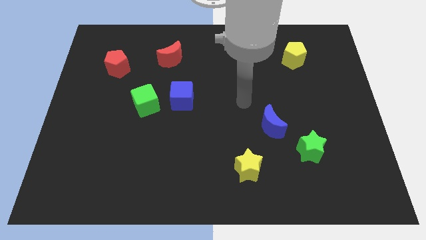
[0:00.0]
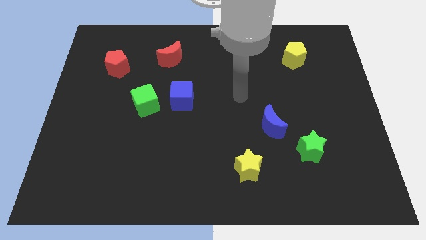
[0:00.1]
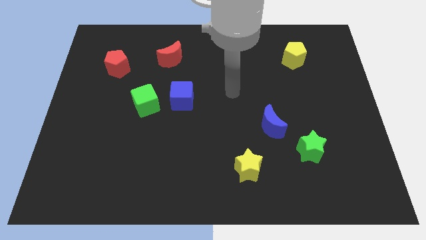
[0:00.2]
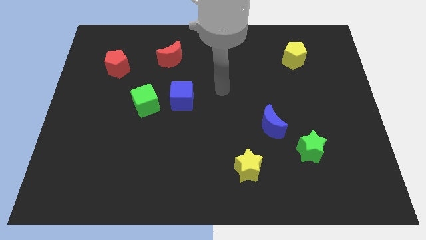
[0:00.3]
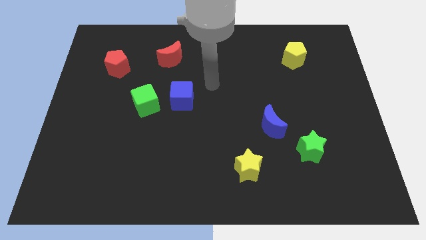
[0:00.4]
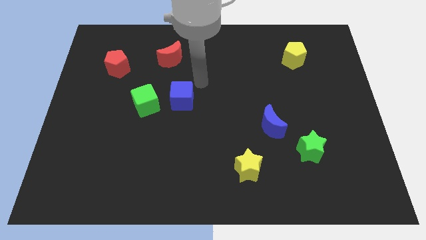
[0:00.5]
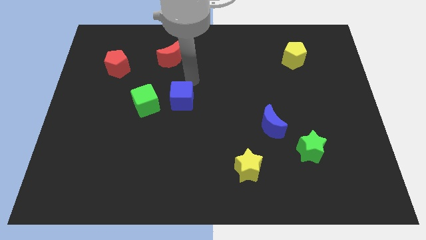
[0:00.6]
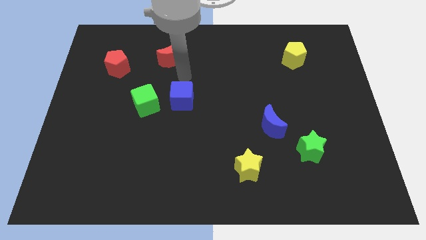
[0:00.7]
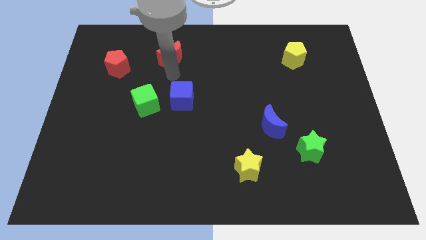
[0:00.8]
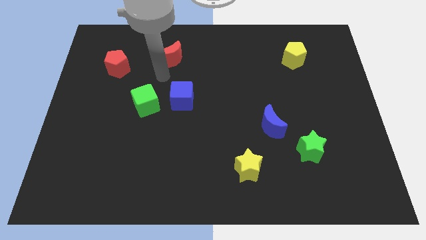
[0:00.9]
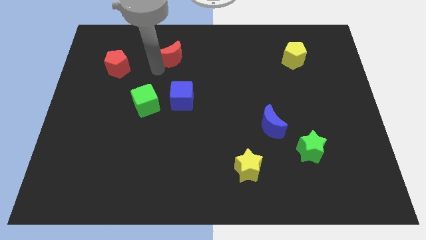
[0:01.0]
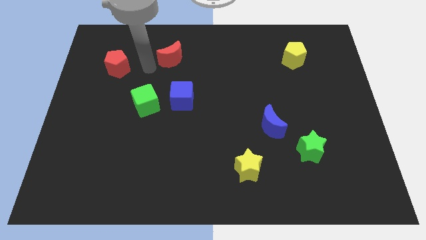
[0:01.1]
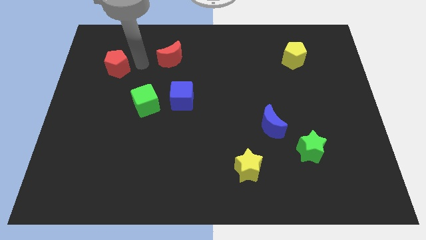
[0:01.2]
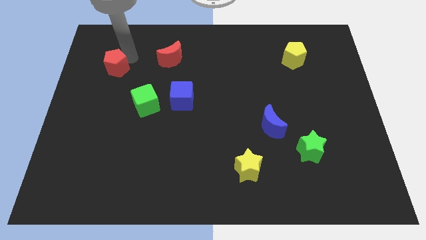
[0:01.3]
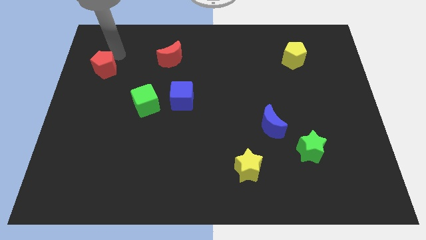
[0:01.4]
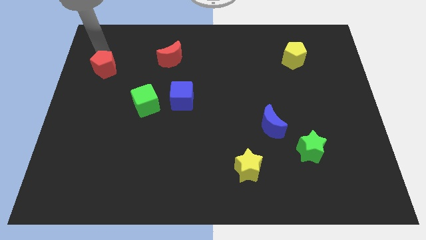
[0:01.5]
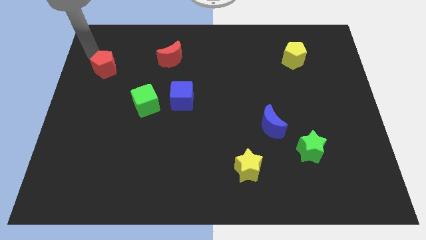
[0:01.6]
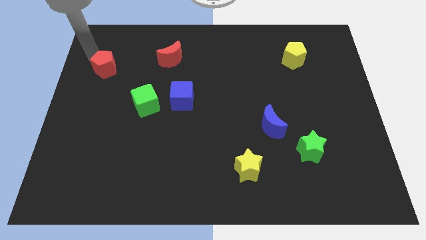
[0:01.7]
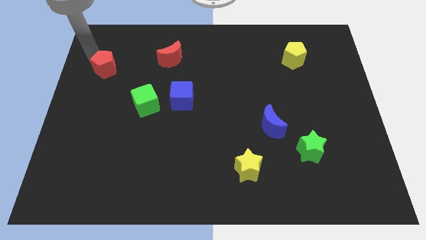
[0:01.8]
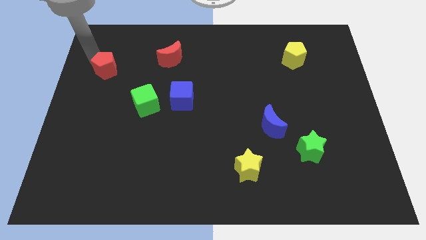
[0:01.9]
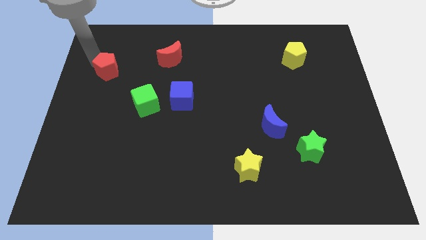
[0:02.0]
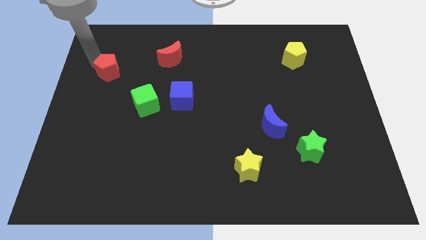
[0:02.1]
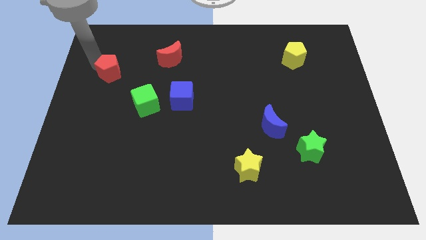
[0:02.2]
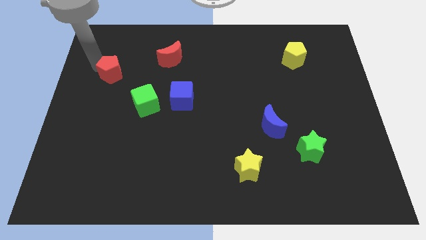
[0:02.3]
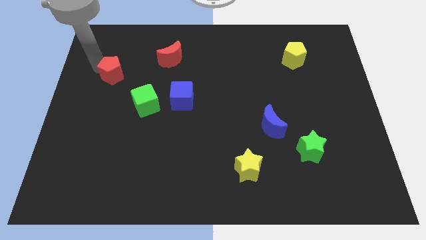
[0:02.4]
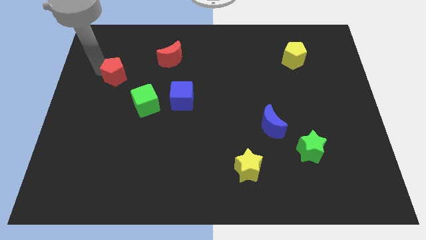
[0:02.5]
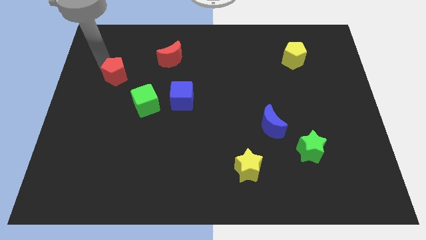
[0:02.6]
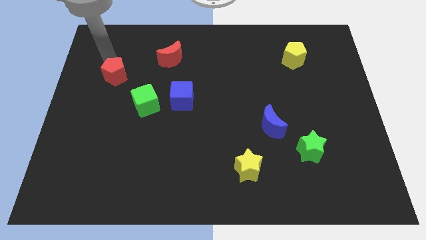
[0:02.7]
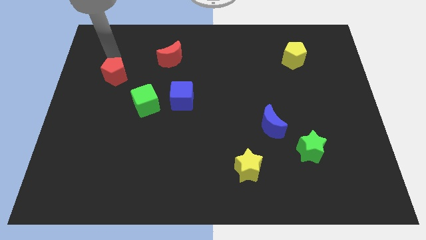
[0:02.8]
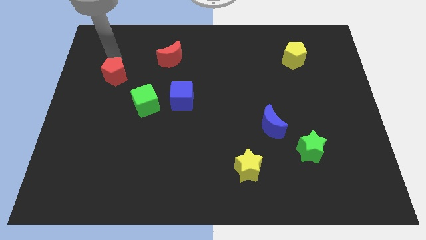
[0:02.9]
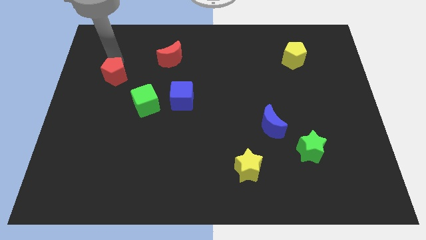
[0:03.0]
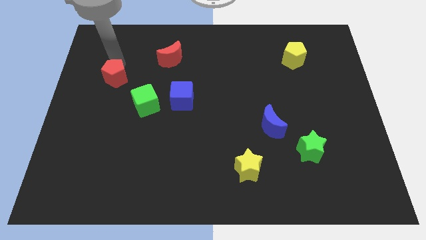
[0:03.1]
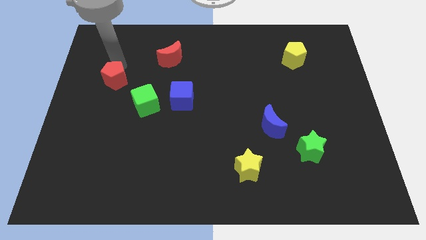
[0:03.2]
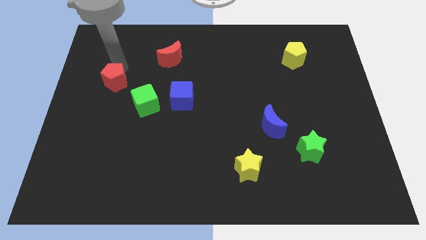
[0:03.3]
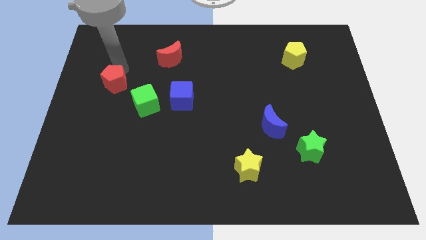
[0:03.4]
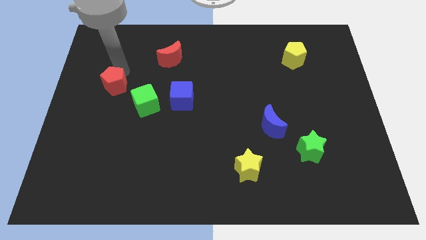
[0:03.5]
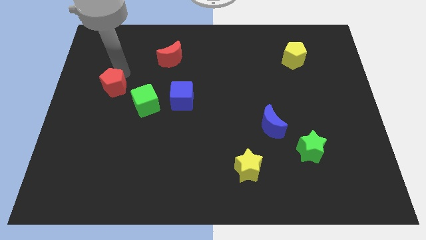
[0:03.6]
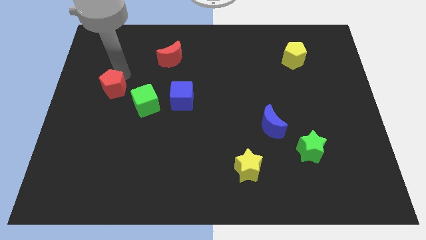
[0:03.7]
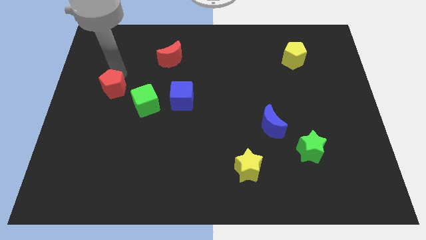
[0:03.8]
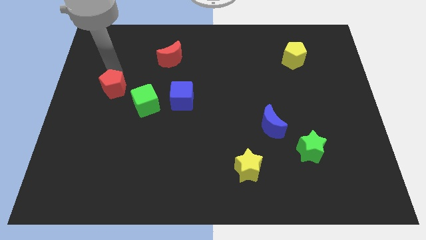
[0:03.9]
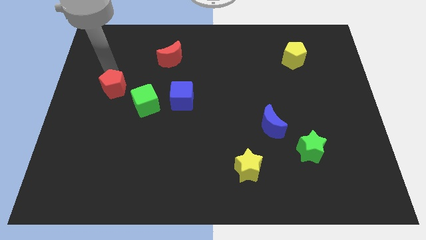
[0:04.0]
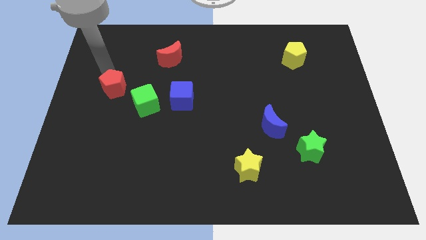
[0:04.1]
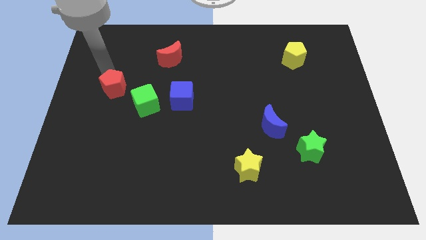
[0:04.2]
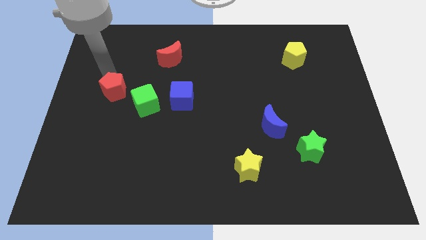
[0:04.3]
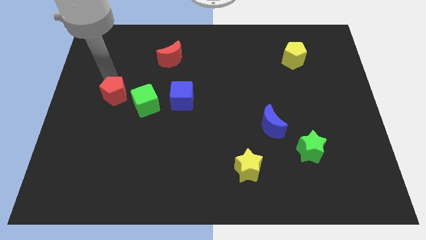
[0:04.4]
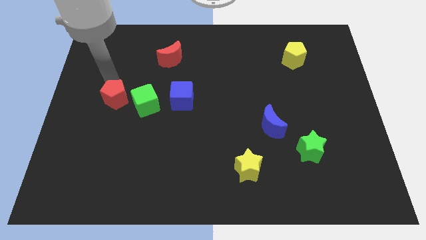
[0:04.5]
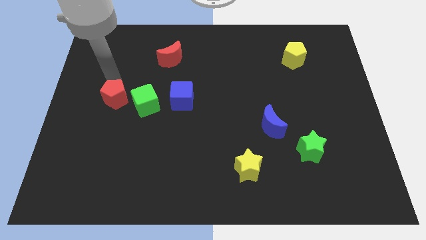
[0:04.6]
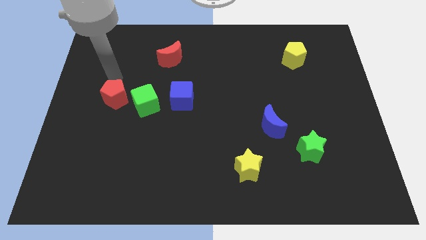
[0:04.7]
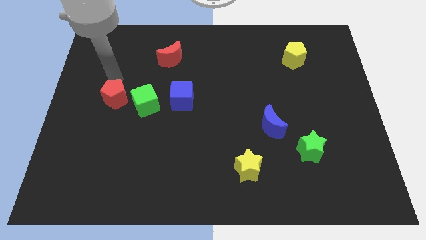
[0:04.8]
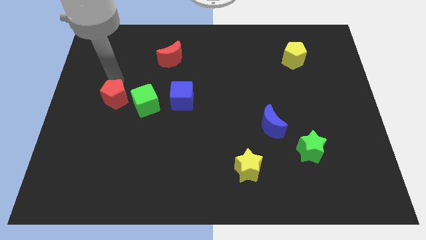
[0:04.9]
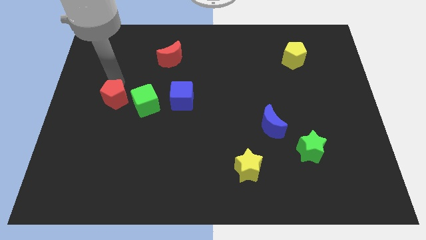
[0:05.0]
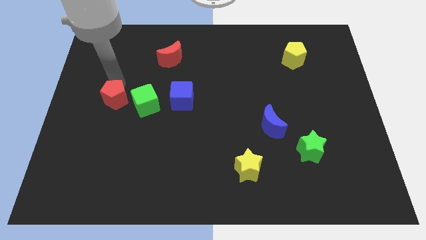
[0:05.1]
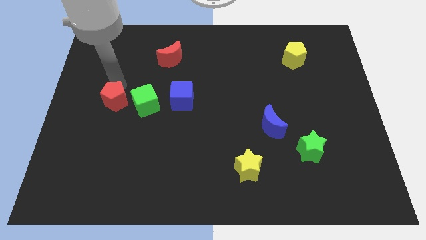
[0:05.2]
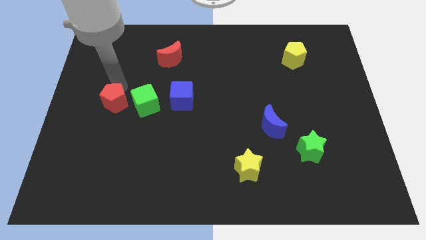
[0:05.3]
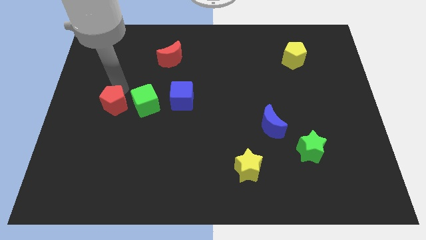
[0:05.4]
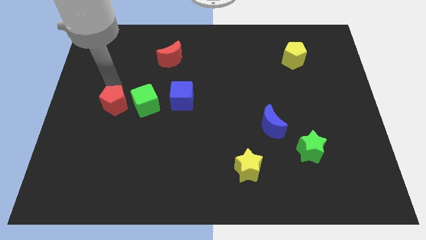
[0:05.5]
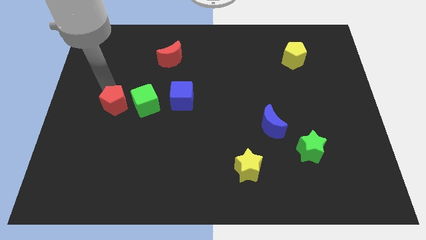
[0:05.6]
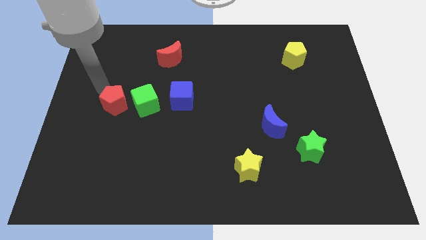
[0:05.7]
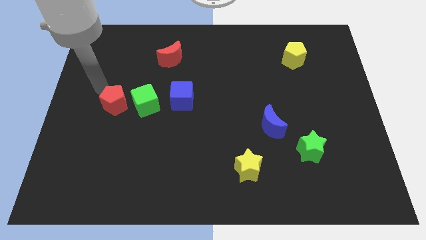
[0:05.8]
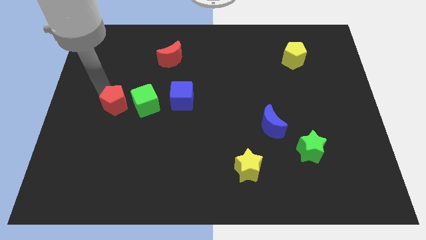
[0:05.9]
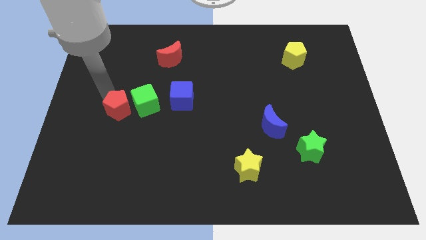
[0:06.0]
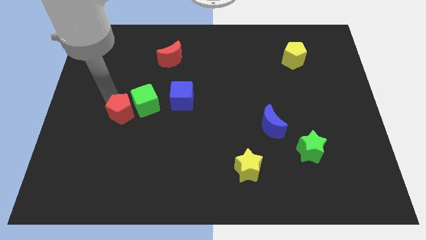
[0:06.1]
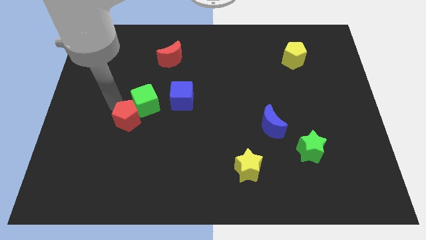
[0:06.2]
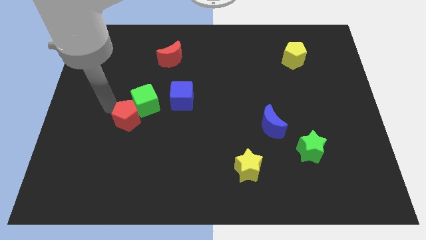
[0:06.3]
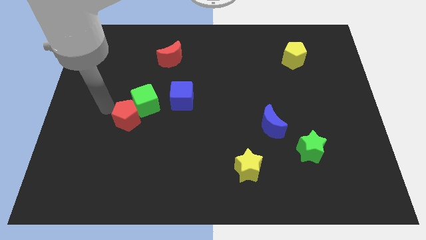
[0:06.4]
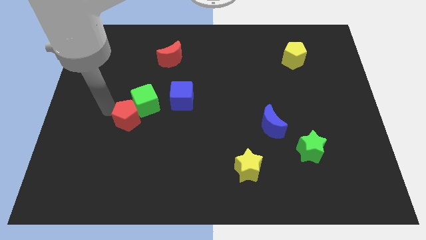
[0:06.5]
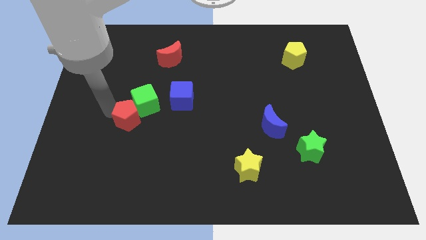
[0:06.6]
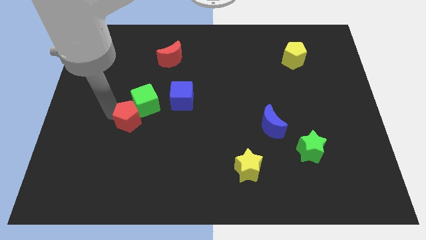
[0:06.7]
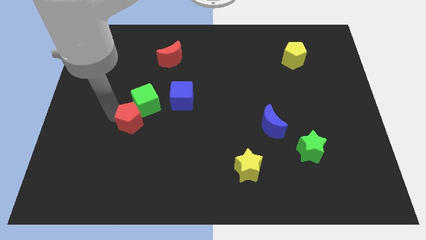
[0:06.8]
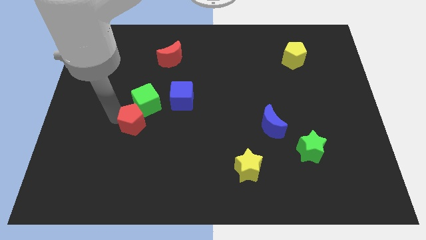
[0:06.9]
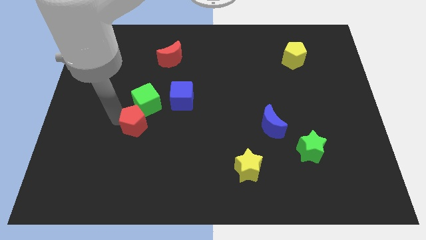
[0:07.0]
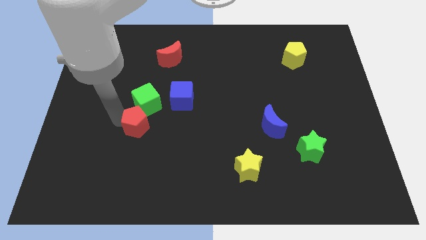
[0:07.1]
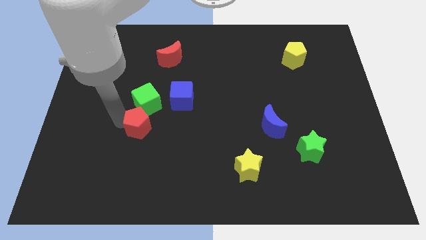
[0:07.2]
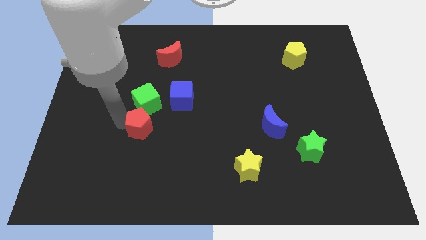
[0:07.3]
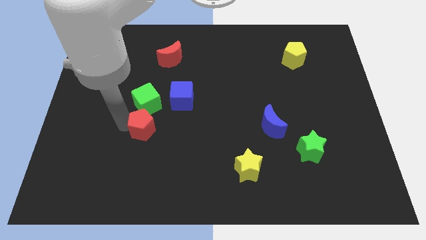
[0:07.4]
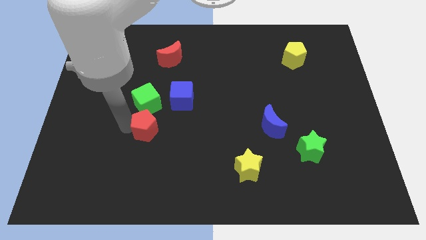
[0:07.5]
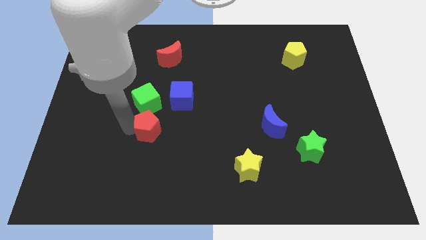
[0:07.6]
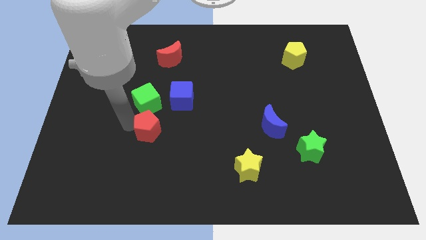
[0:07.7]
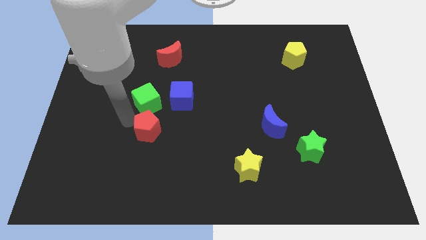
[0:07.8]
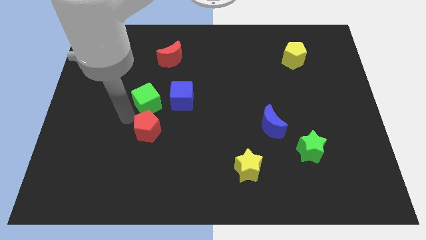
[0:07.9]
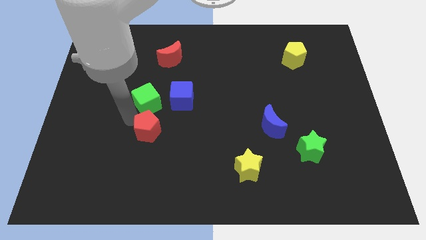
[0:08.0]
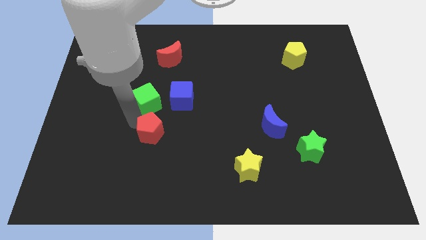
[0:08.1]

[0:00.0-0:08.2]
slide the red pentagon down and then to the right
